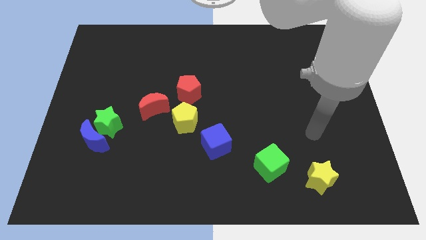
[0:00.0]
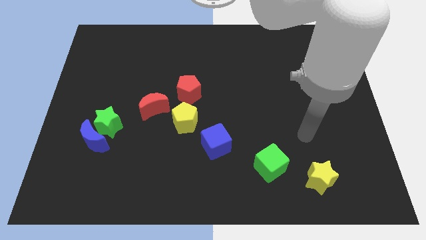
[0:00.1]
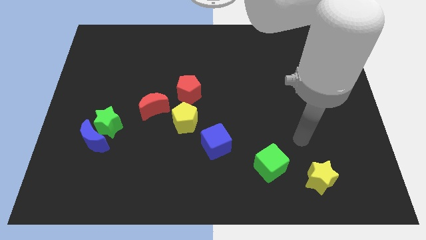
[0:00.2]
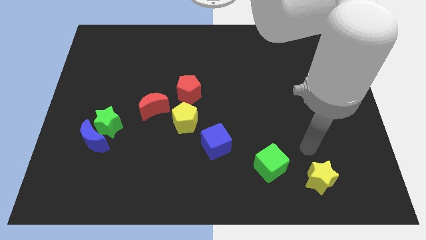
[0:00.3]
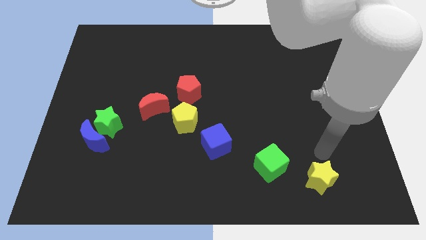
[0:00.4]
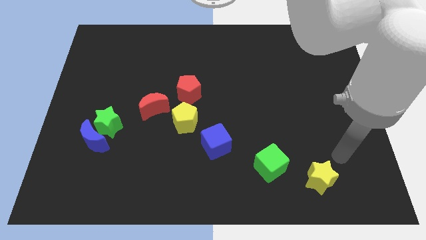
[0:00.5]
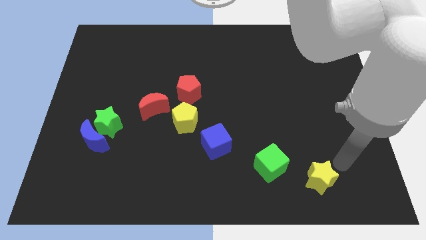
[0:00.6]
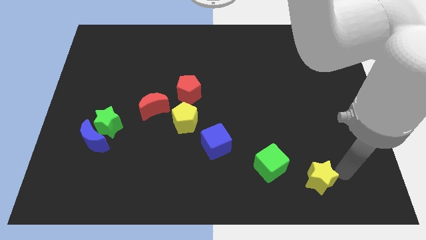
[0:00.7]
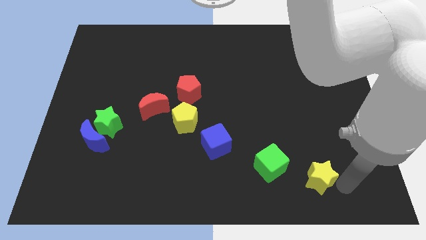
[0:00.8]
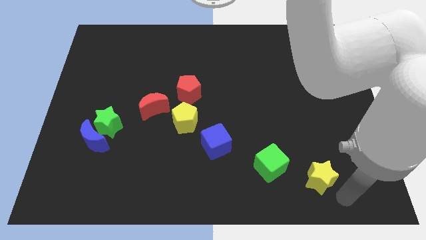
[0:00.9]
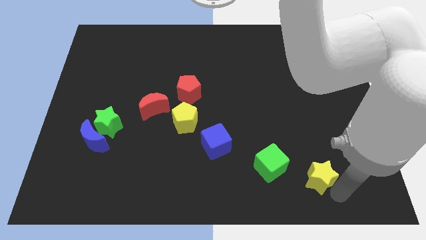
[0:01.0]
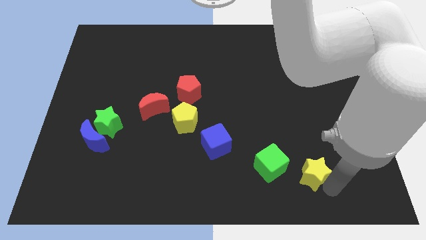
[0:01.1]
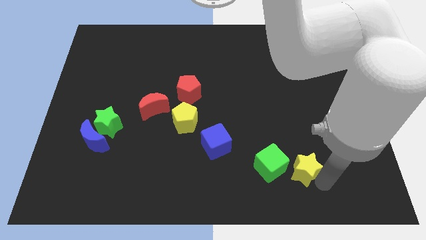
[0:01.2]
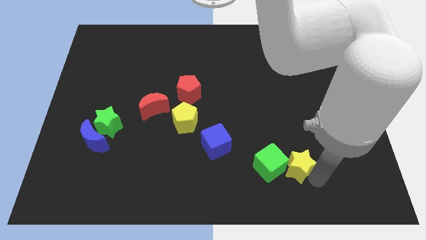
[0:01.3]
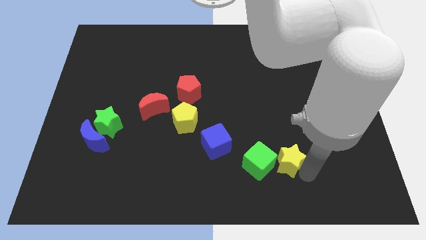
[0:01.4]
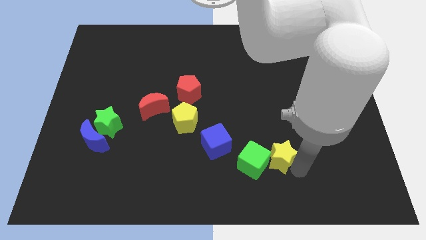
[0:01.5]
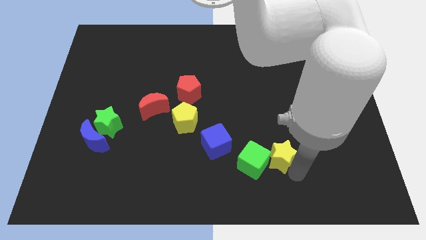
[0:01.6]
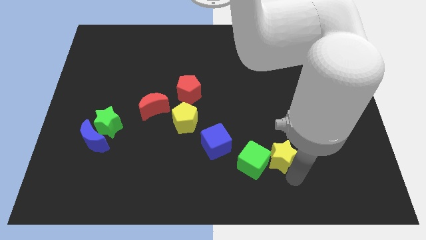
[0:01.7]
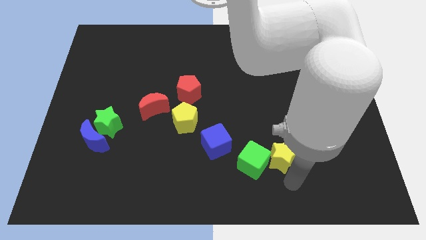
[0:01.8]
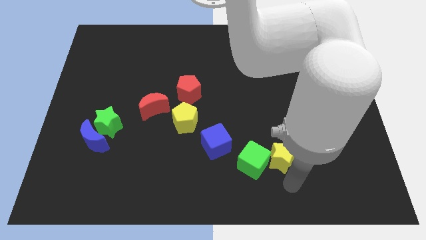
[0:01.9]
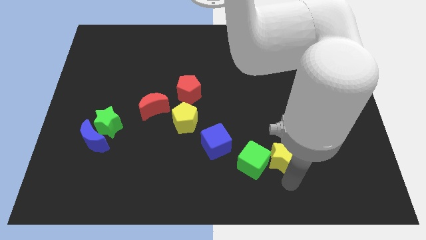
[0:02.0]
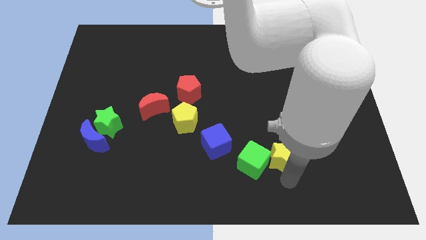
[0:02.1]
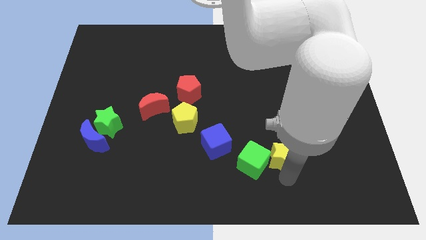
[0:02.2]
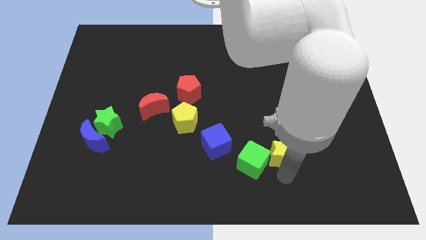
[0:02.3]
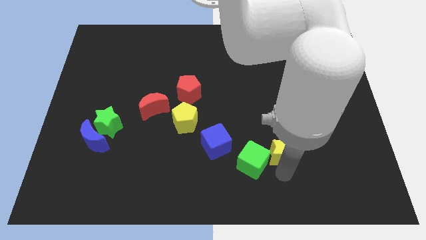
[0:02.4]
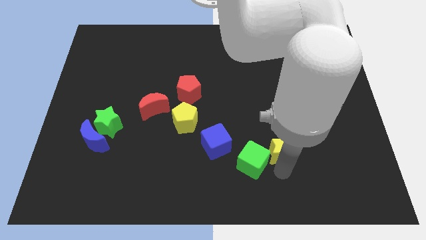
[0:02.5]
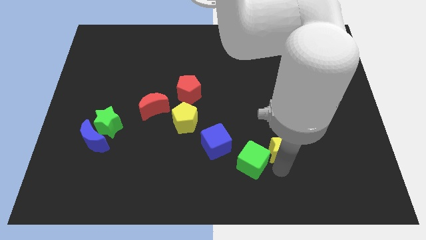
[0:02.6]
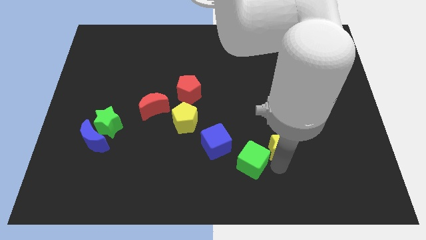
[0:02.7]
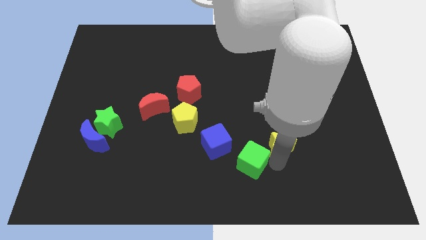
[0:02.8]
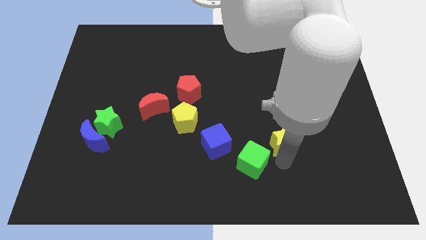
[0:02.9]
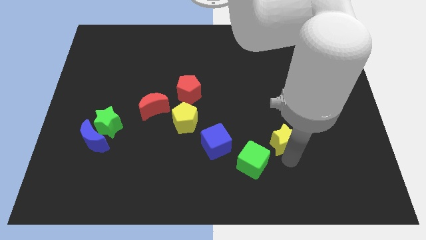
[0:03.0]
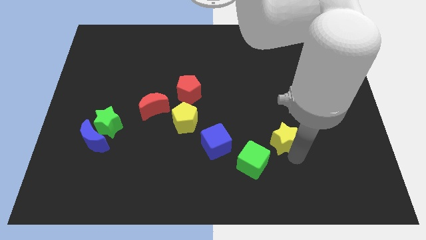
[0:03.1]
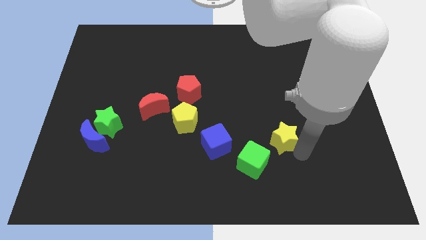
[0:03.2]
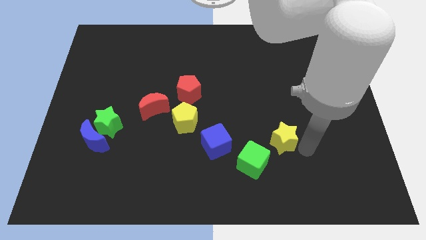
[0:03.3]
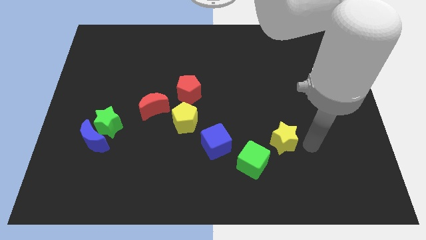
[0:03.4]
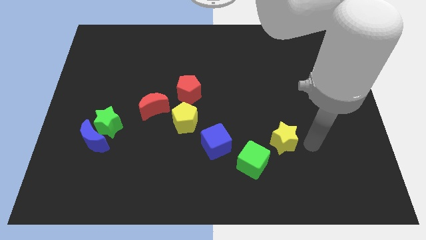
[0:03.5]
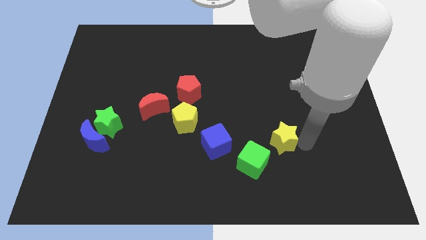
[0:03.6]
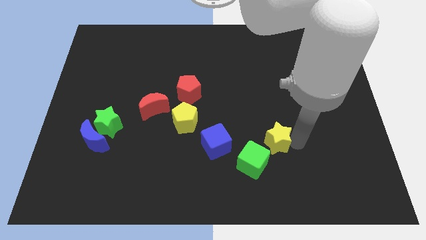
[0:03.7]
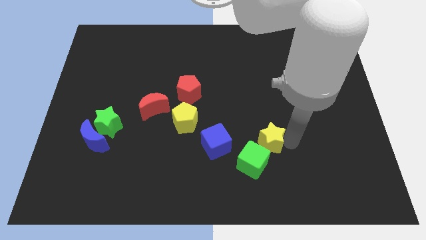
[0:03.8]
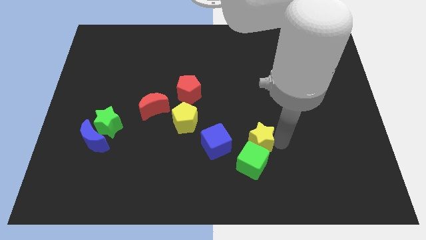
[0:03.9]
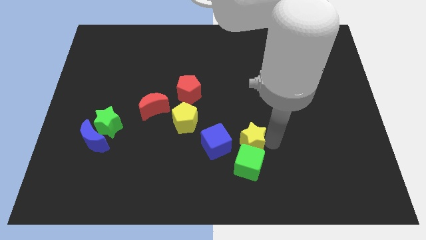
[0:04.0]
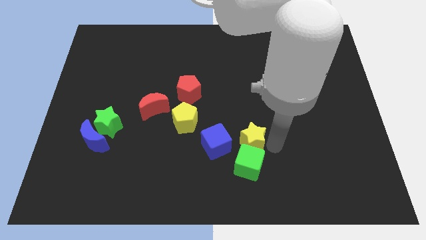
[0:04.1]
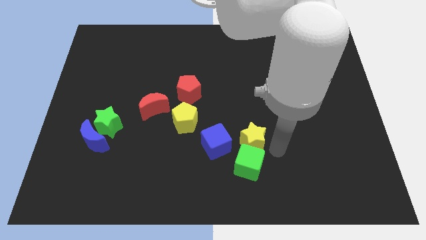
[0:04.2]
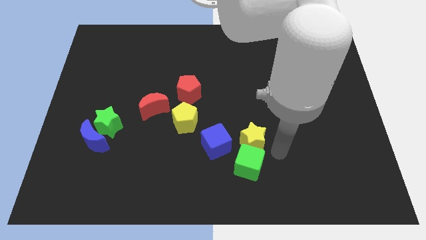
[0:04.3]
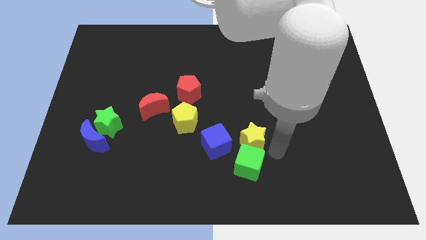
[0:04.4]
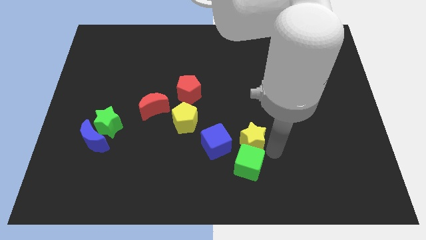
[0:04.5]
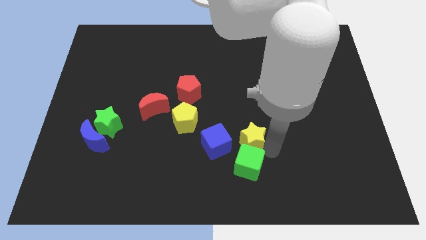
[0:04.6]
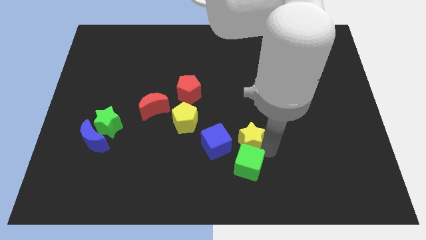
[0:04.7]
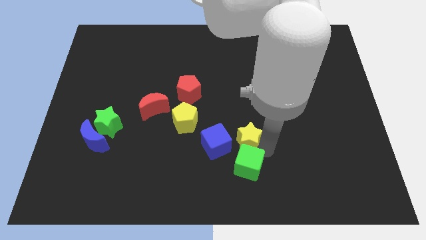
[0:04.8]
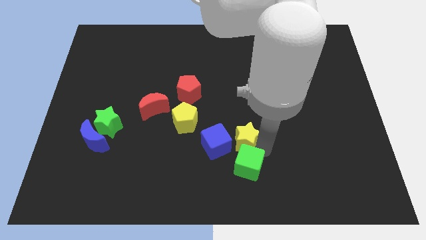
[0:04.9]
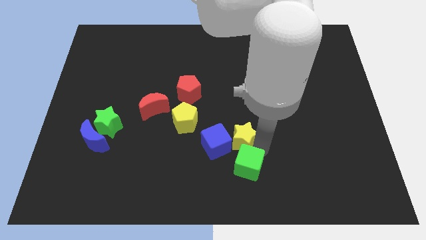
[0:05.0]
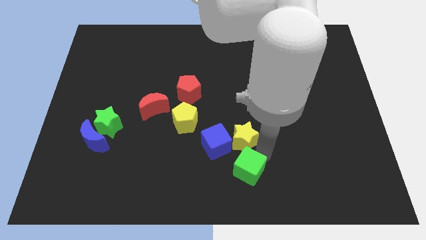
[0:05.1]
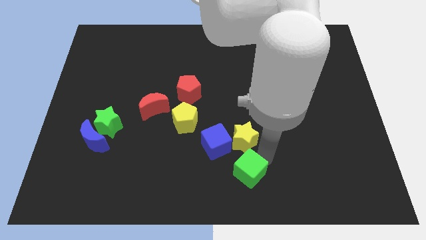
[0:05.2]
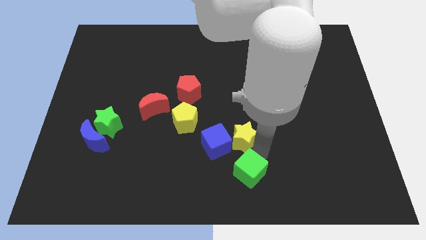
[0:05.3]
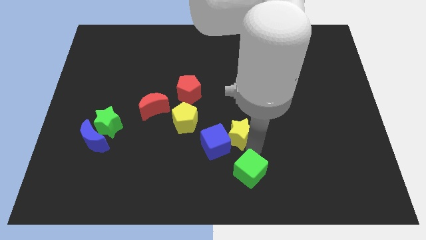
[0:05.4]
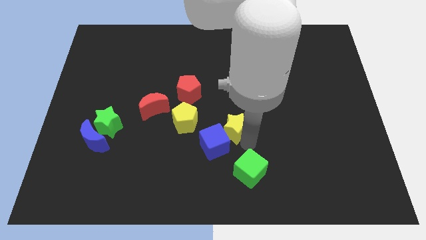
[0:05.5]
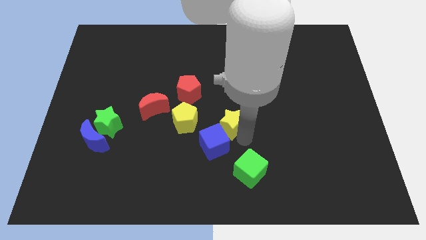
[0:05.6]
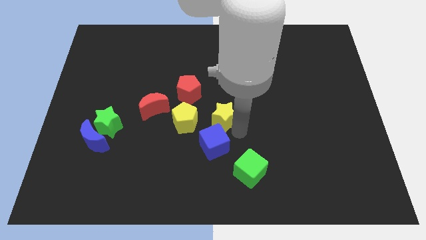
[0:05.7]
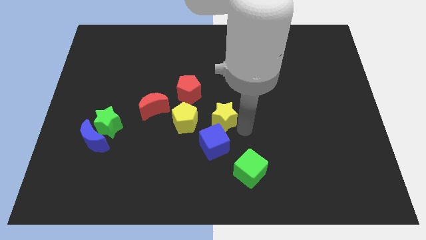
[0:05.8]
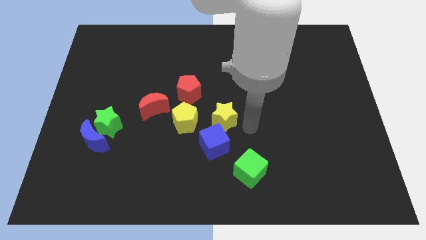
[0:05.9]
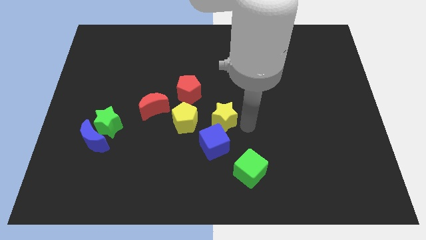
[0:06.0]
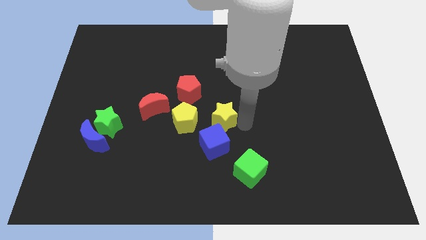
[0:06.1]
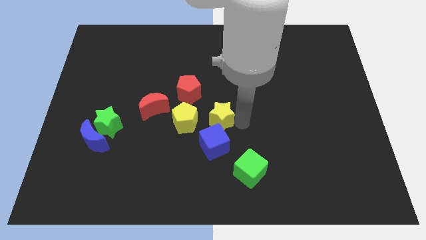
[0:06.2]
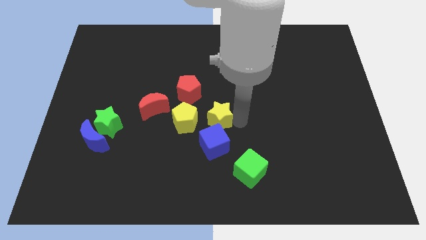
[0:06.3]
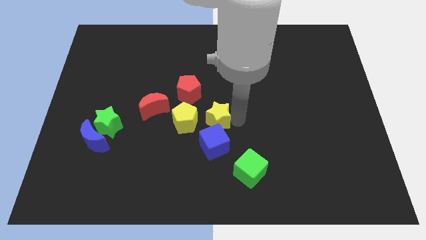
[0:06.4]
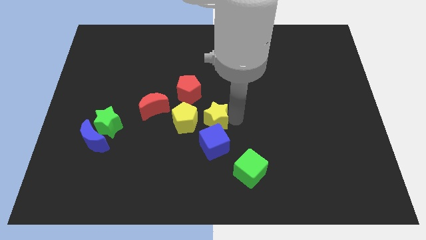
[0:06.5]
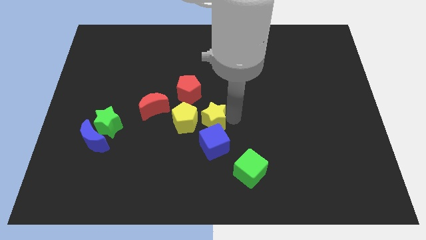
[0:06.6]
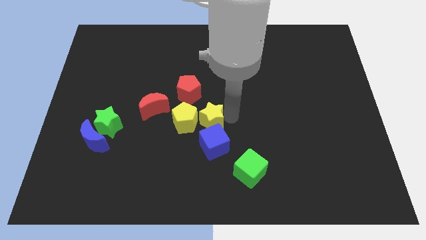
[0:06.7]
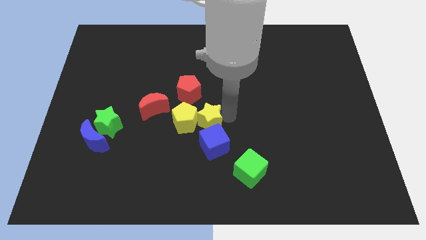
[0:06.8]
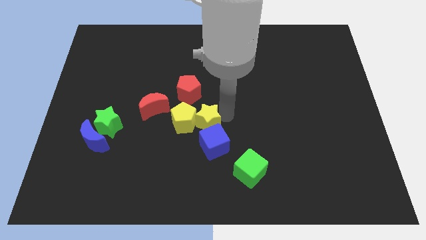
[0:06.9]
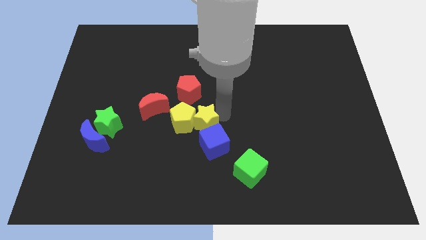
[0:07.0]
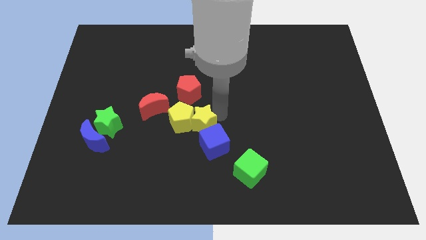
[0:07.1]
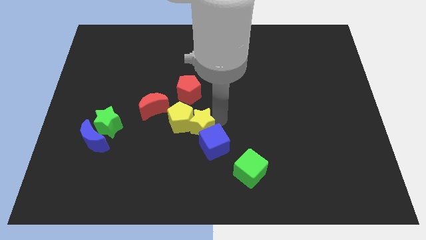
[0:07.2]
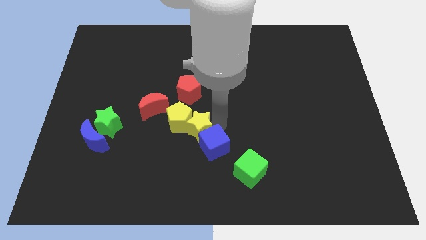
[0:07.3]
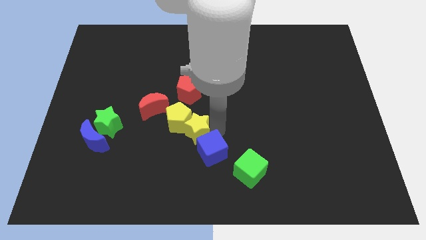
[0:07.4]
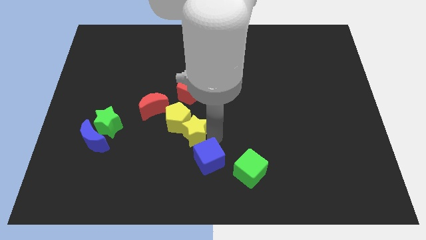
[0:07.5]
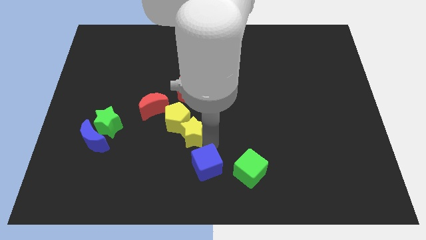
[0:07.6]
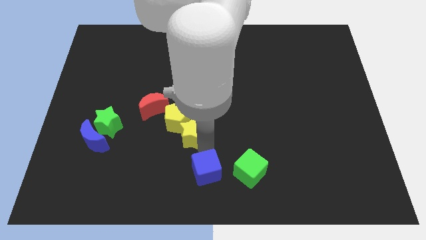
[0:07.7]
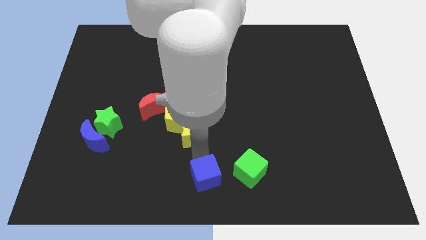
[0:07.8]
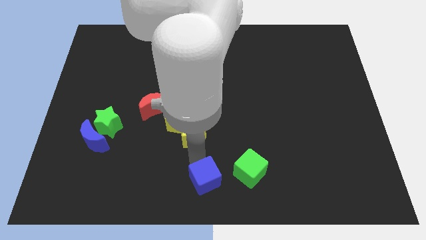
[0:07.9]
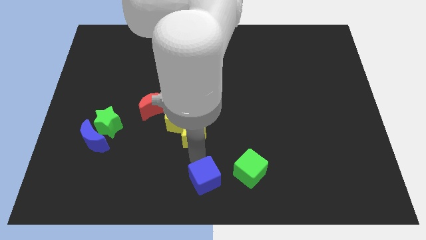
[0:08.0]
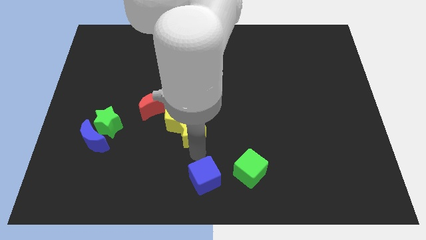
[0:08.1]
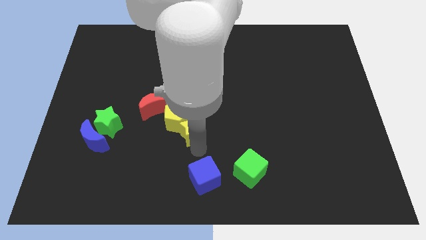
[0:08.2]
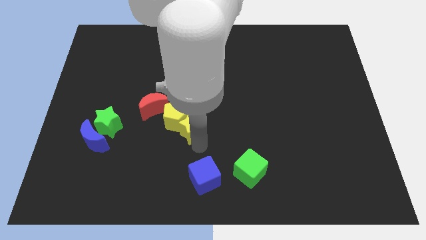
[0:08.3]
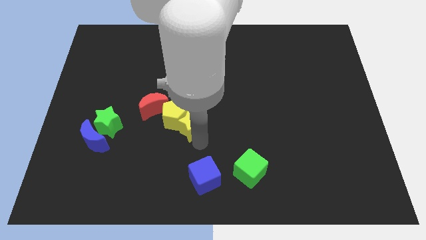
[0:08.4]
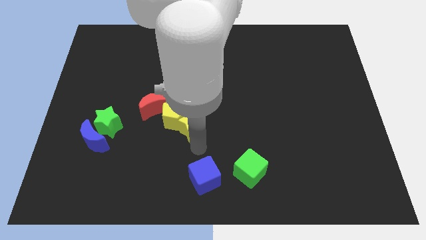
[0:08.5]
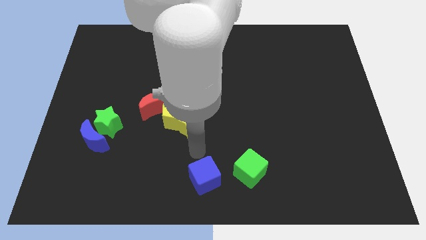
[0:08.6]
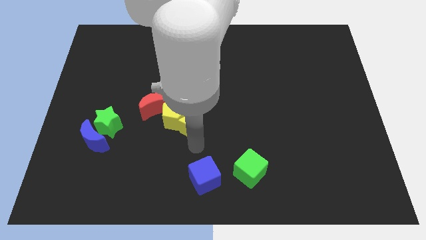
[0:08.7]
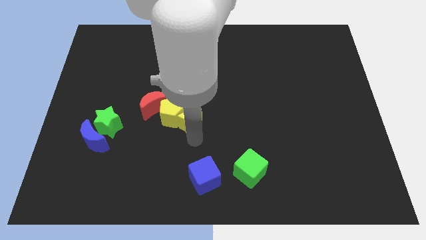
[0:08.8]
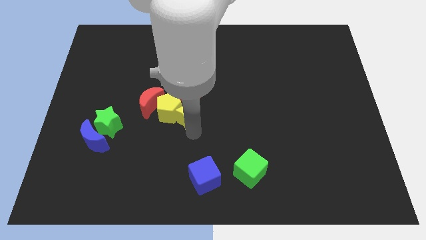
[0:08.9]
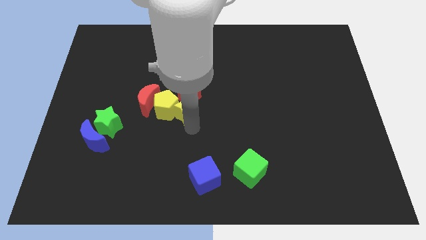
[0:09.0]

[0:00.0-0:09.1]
put the yellow star next to the red pentagon
